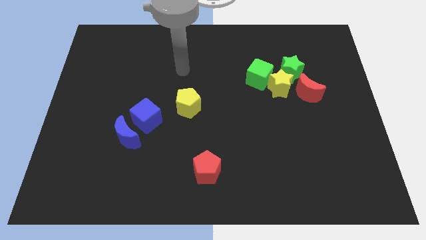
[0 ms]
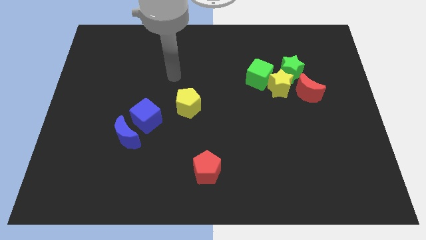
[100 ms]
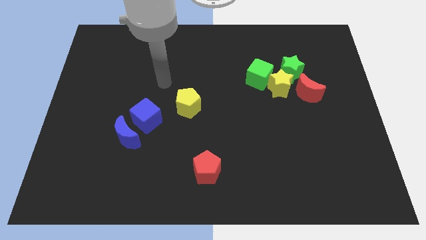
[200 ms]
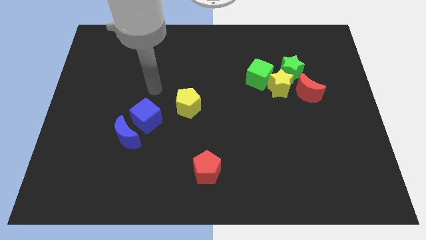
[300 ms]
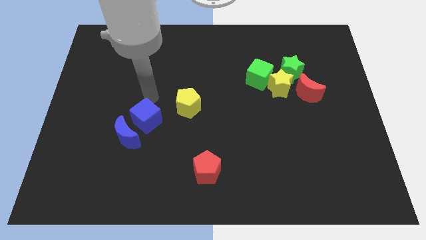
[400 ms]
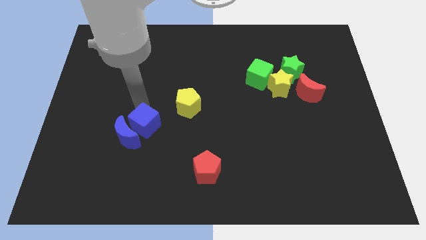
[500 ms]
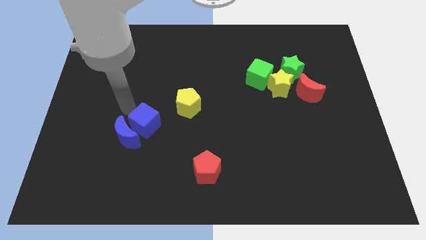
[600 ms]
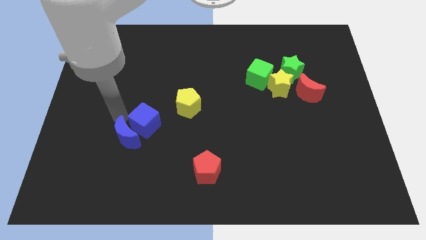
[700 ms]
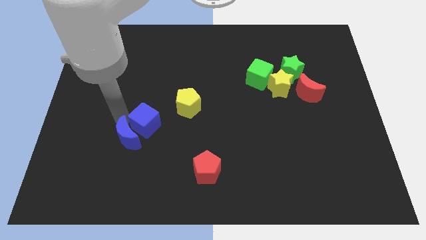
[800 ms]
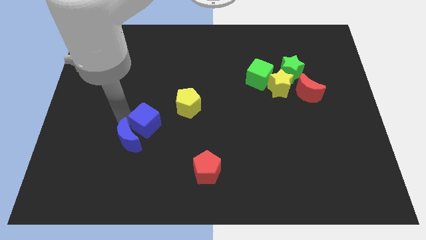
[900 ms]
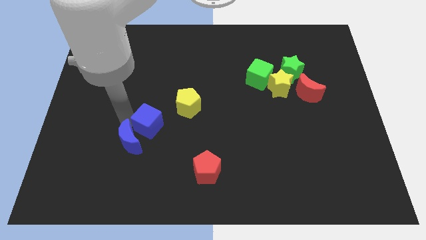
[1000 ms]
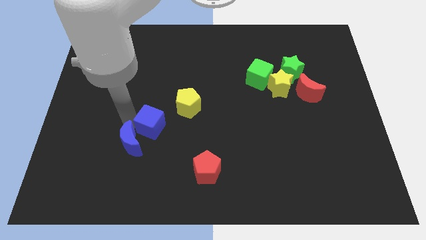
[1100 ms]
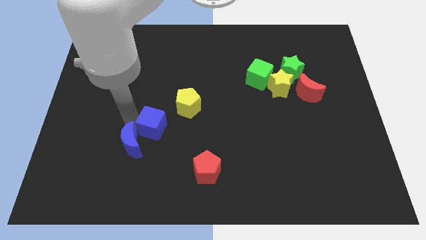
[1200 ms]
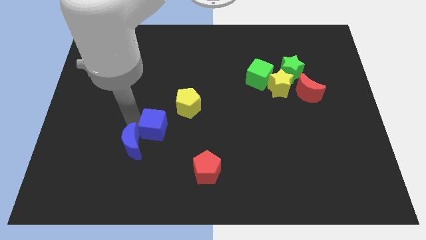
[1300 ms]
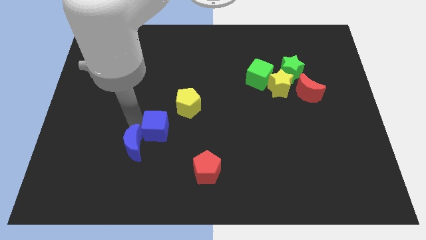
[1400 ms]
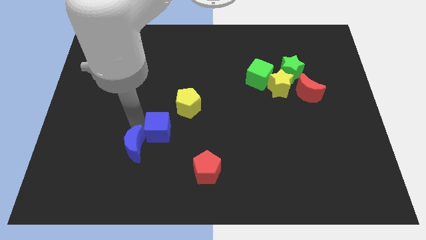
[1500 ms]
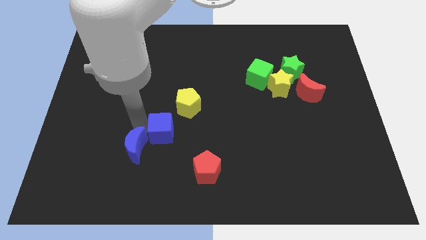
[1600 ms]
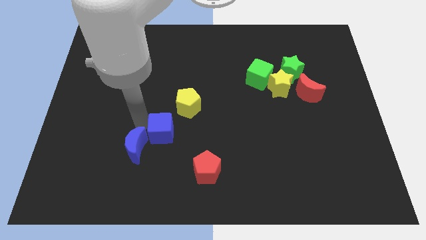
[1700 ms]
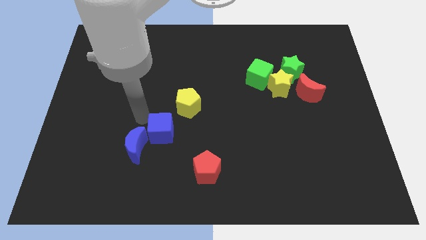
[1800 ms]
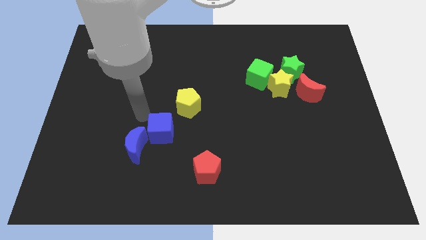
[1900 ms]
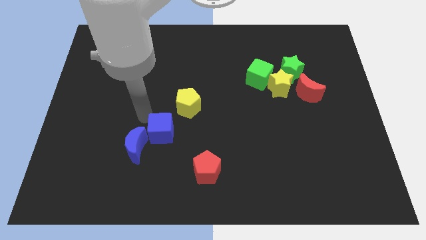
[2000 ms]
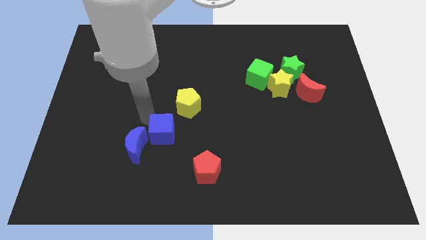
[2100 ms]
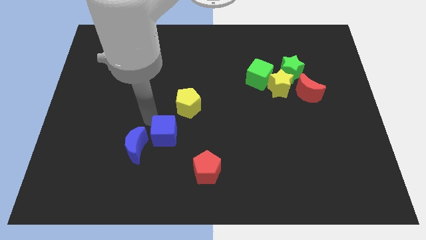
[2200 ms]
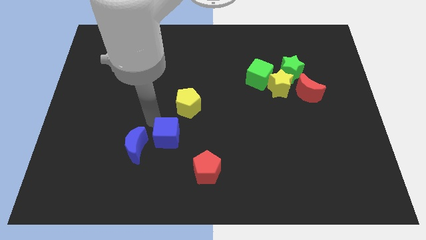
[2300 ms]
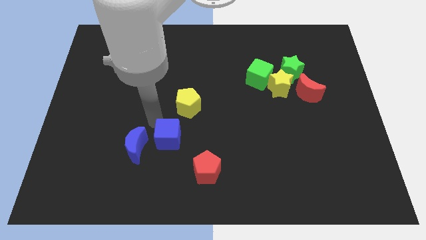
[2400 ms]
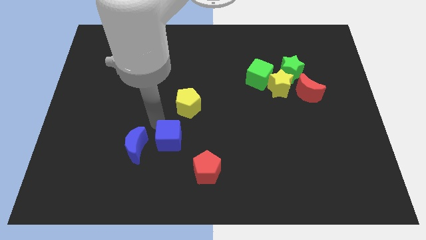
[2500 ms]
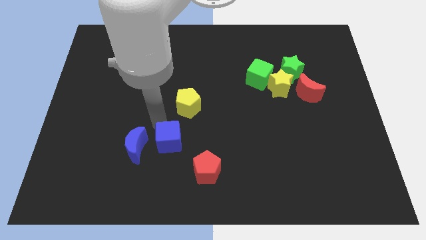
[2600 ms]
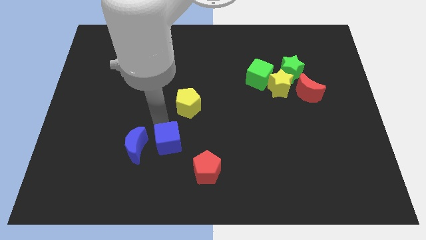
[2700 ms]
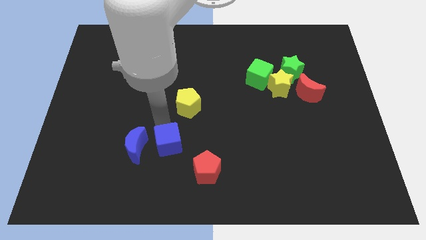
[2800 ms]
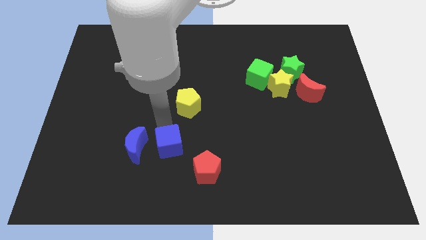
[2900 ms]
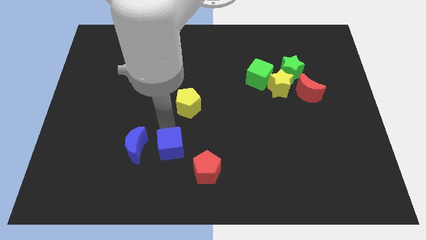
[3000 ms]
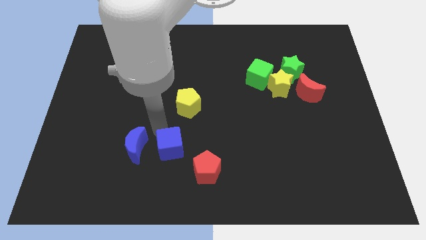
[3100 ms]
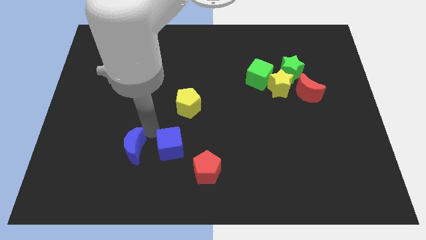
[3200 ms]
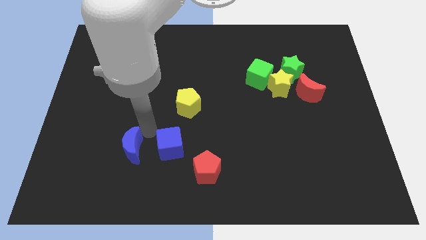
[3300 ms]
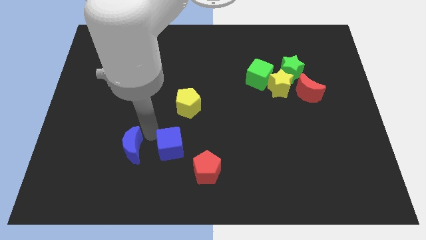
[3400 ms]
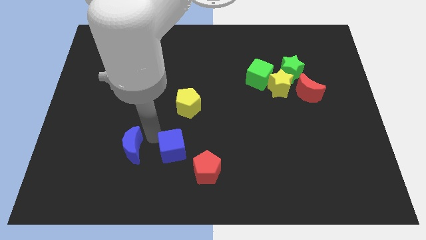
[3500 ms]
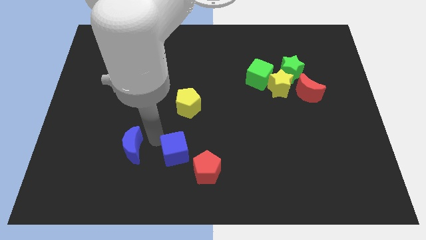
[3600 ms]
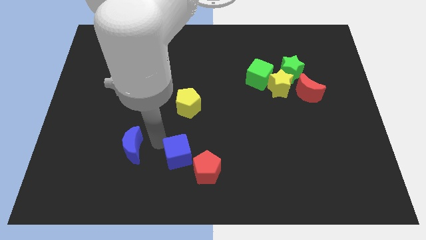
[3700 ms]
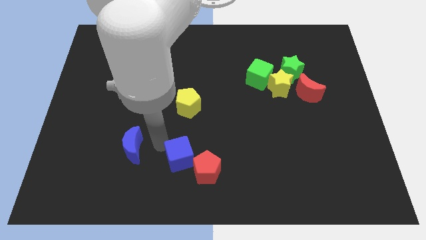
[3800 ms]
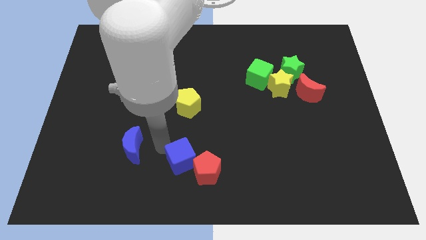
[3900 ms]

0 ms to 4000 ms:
put the blue cube next to the red pentagon

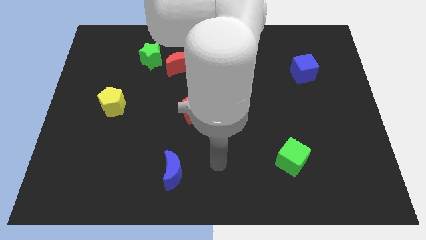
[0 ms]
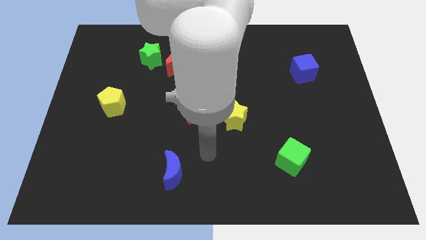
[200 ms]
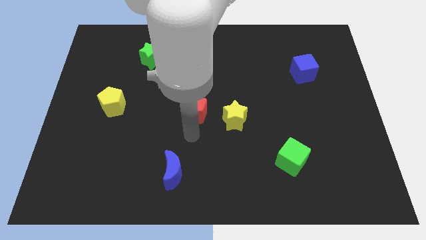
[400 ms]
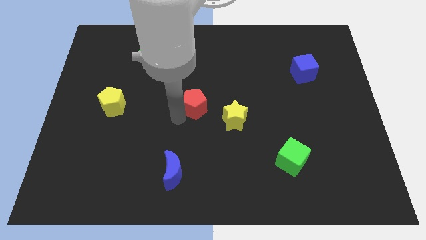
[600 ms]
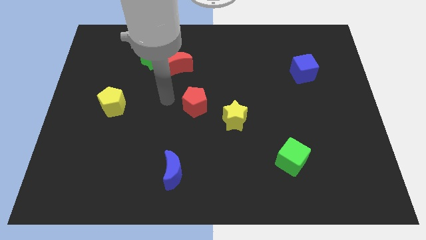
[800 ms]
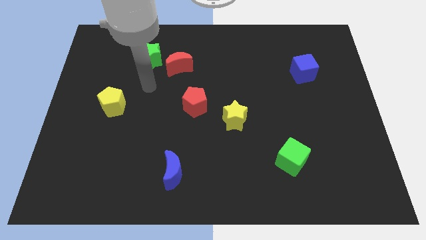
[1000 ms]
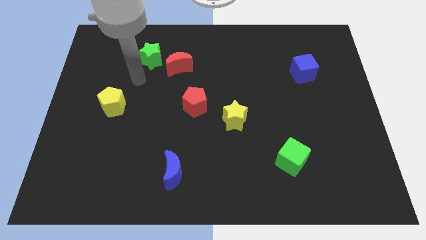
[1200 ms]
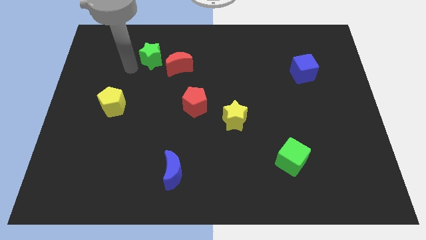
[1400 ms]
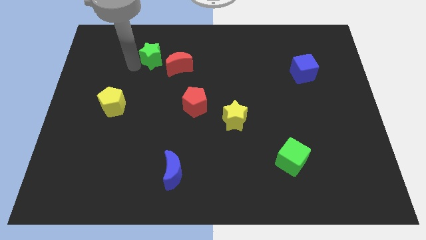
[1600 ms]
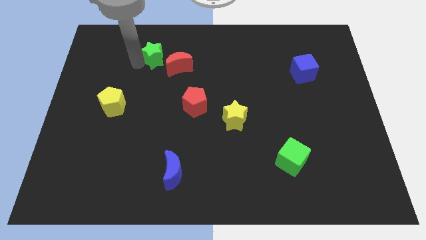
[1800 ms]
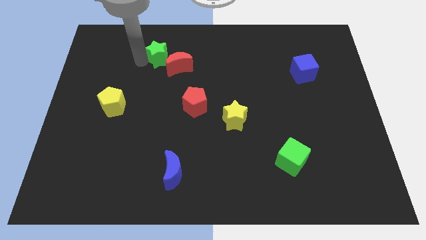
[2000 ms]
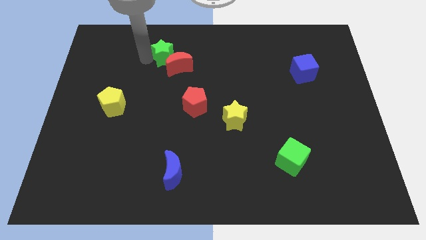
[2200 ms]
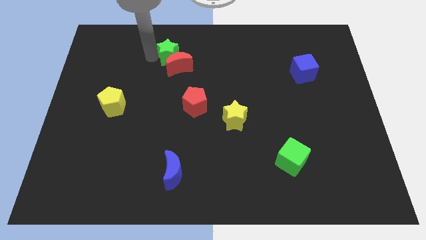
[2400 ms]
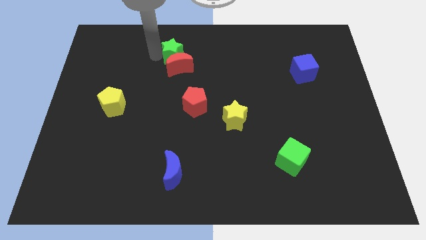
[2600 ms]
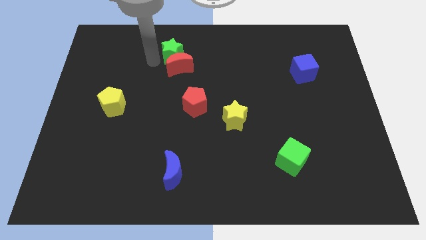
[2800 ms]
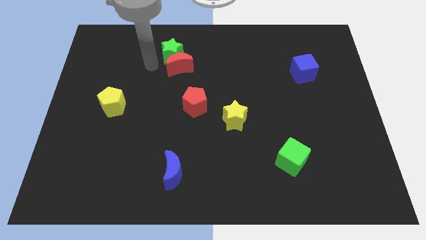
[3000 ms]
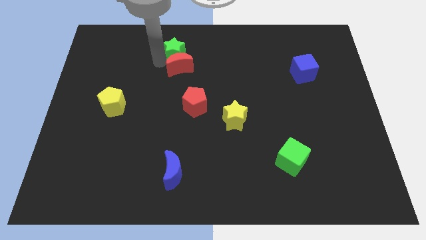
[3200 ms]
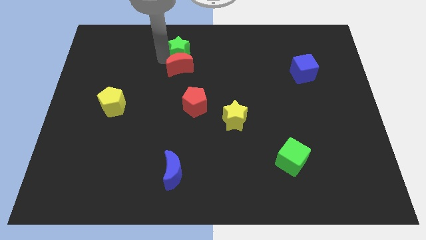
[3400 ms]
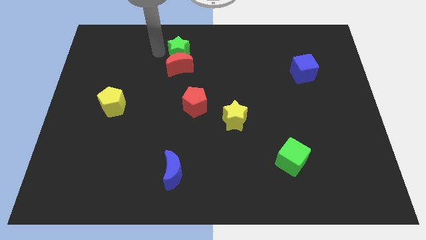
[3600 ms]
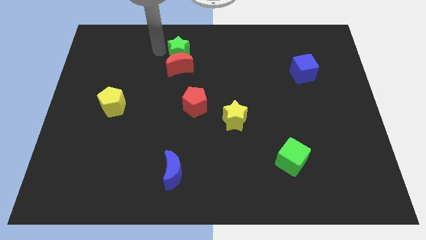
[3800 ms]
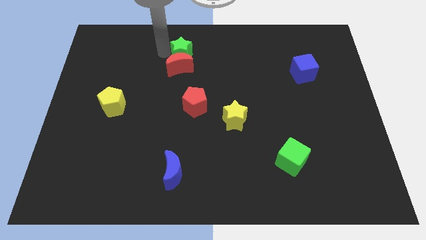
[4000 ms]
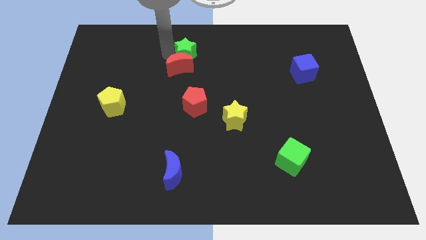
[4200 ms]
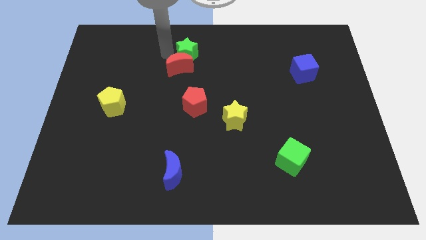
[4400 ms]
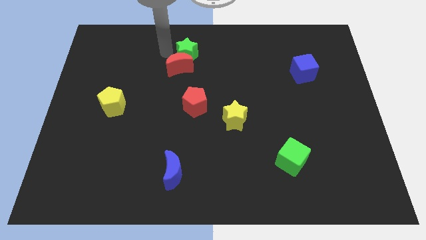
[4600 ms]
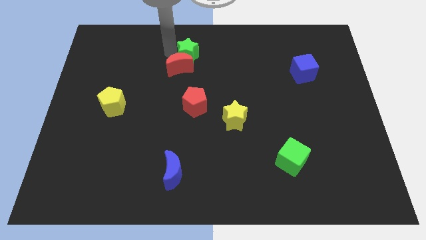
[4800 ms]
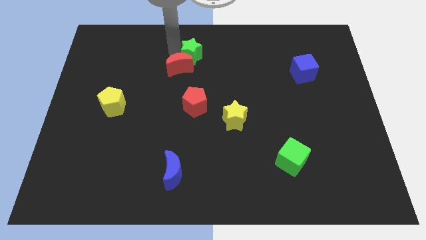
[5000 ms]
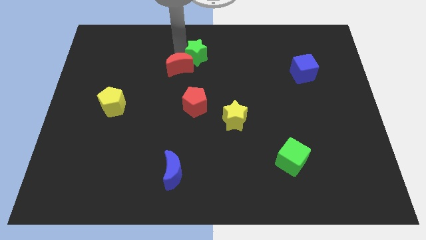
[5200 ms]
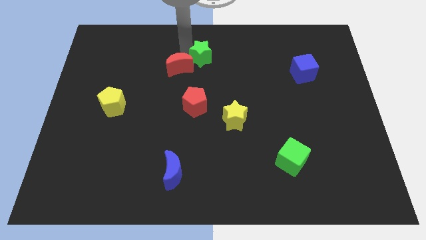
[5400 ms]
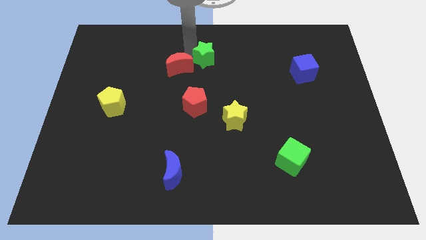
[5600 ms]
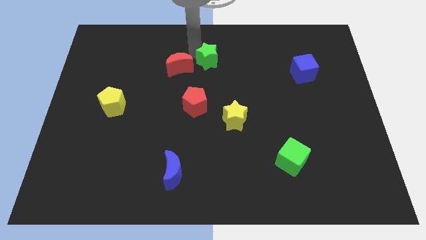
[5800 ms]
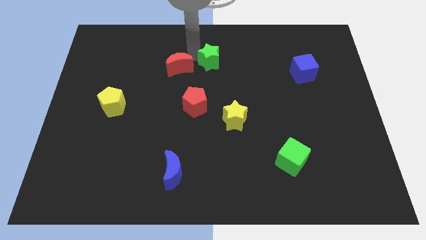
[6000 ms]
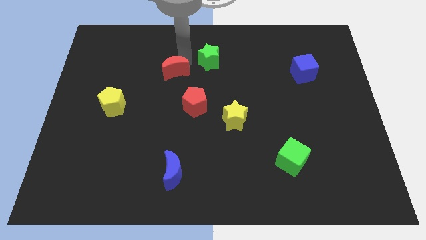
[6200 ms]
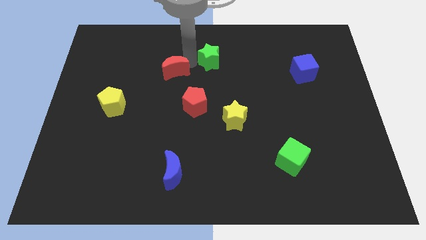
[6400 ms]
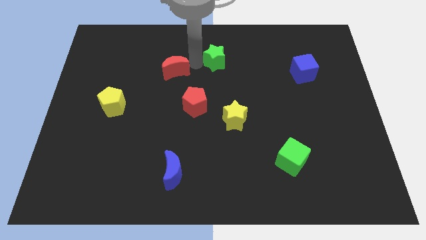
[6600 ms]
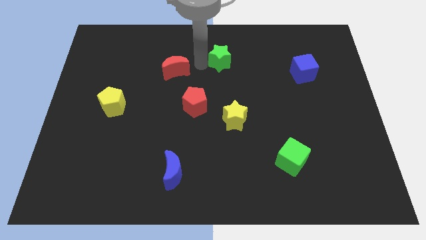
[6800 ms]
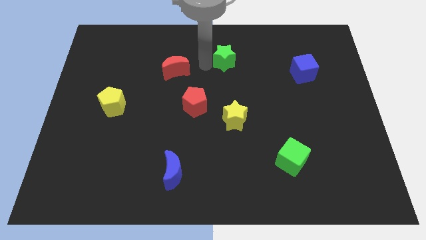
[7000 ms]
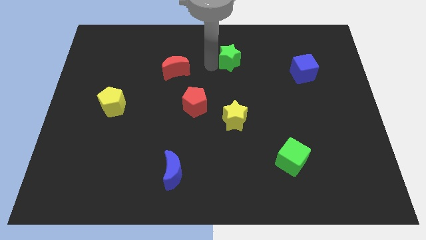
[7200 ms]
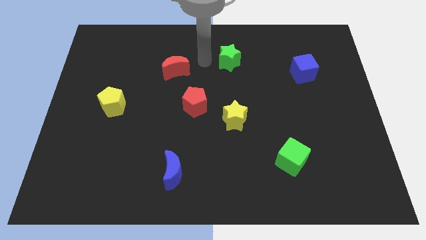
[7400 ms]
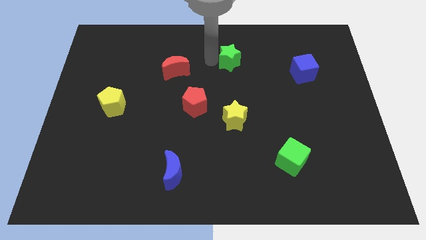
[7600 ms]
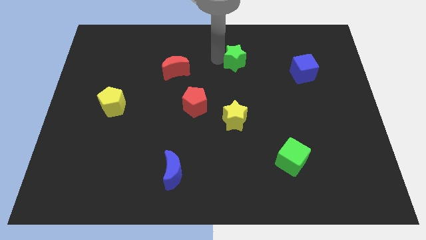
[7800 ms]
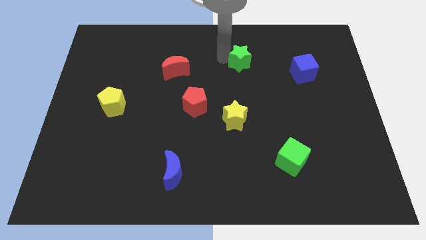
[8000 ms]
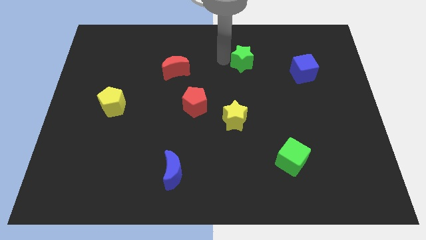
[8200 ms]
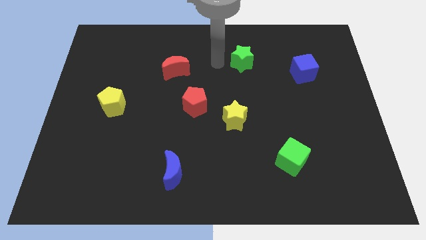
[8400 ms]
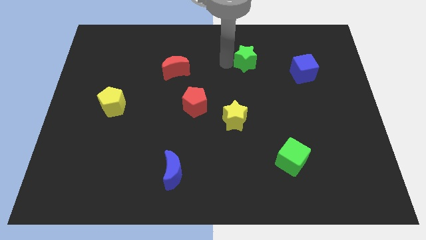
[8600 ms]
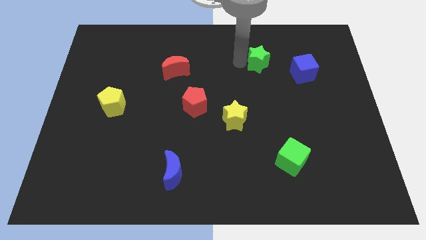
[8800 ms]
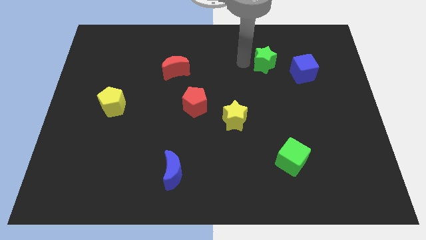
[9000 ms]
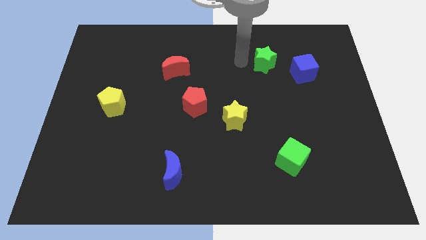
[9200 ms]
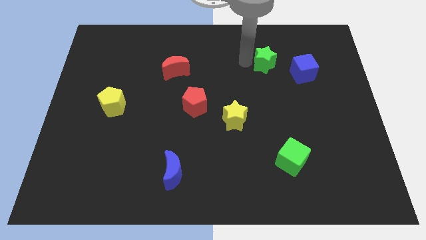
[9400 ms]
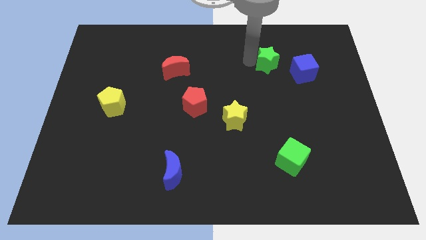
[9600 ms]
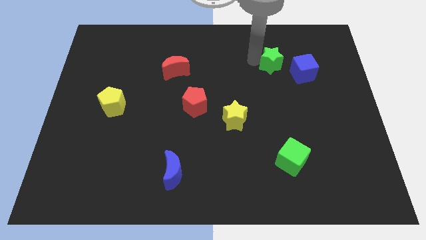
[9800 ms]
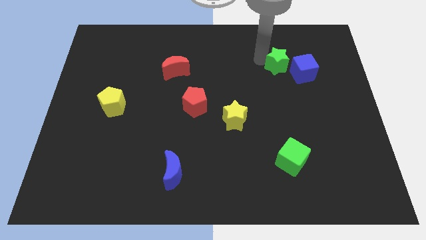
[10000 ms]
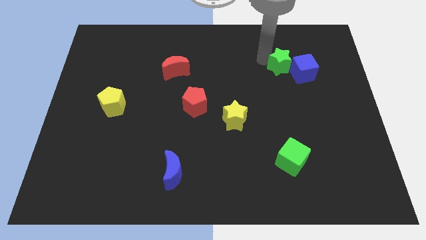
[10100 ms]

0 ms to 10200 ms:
put the green star to the blue cube
